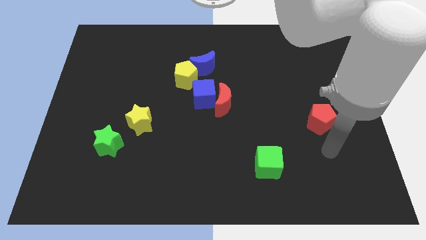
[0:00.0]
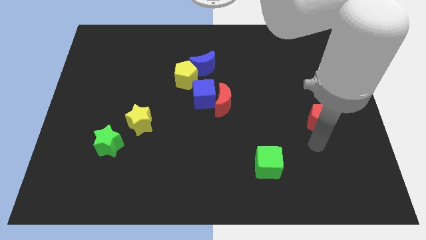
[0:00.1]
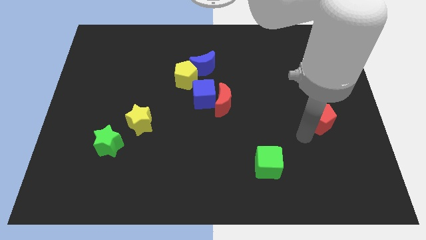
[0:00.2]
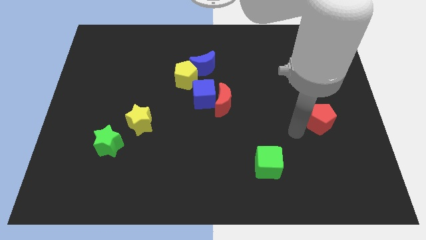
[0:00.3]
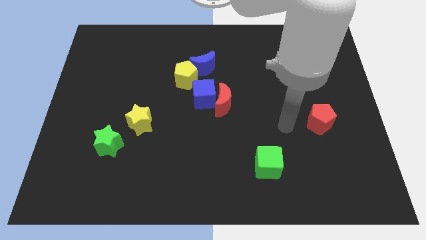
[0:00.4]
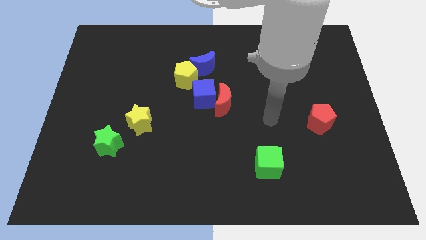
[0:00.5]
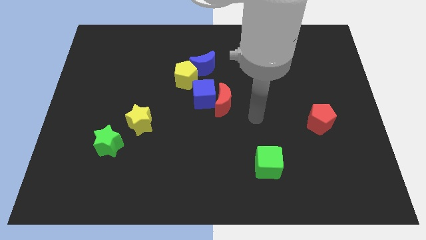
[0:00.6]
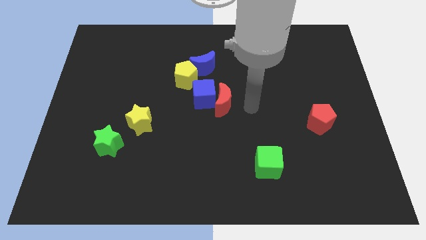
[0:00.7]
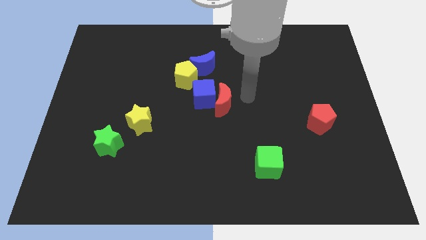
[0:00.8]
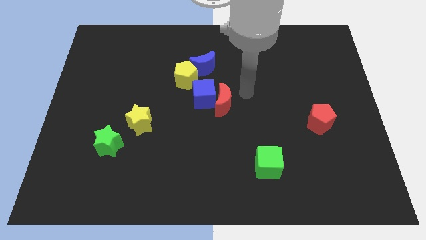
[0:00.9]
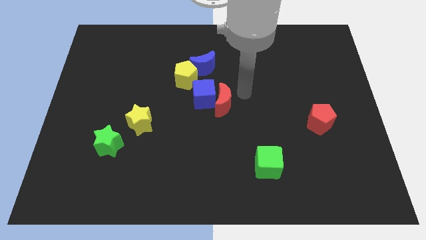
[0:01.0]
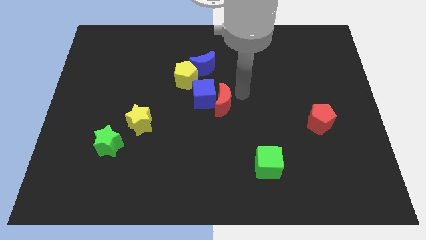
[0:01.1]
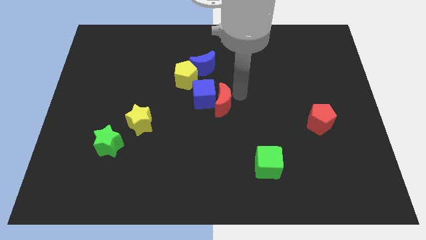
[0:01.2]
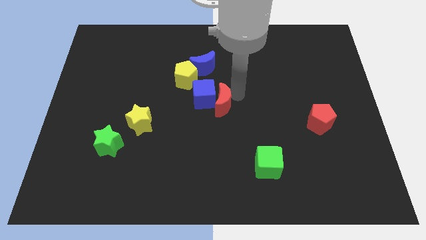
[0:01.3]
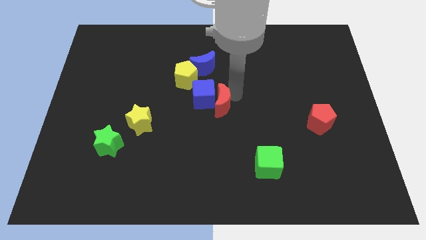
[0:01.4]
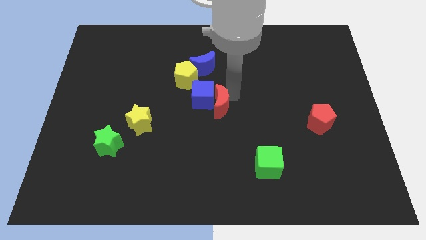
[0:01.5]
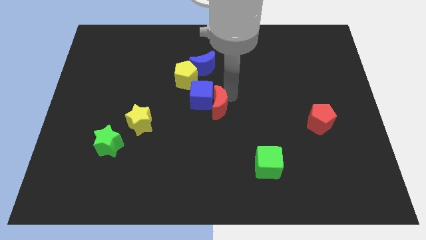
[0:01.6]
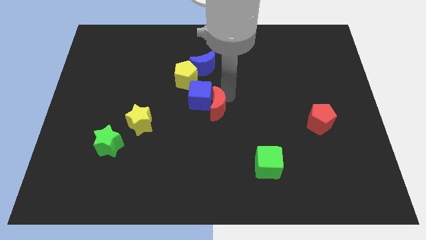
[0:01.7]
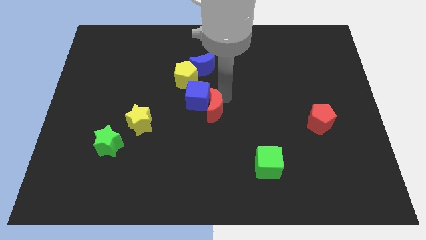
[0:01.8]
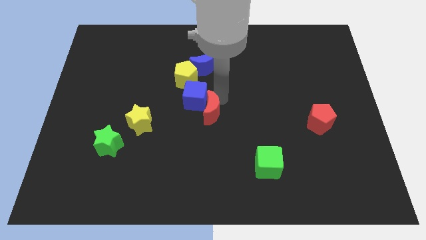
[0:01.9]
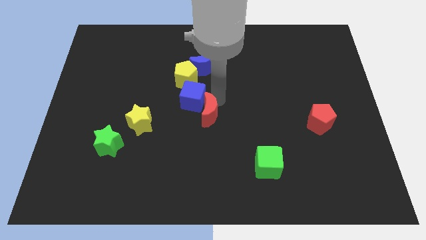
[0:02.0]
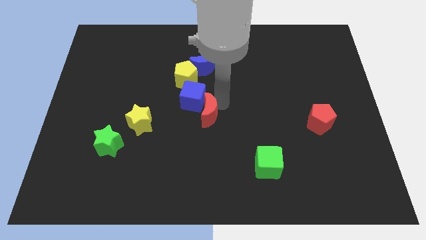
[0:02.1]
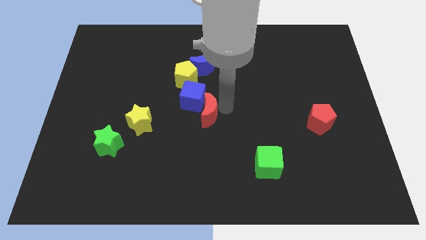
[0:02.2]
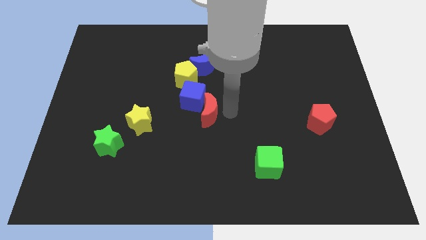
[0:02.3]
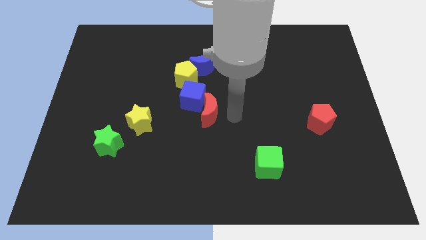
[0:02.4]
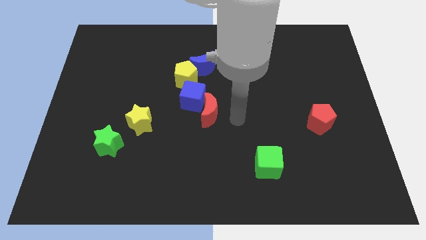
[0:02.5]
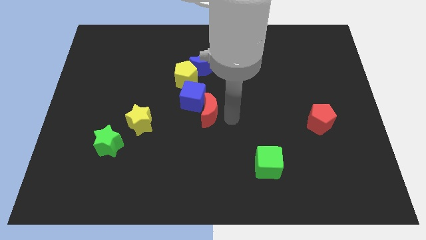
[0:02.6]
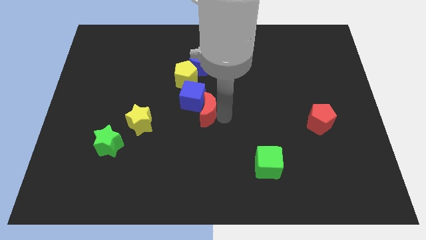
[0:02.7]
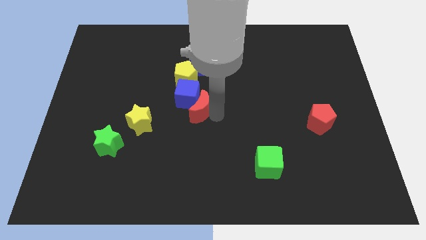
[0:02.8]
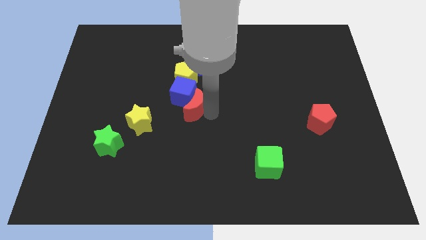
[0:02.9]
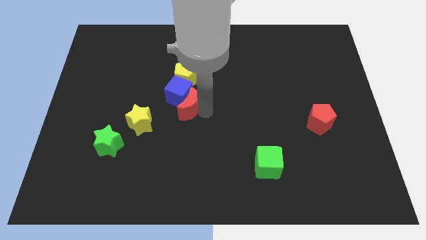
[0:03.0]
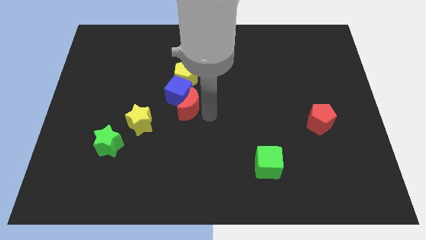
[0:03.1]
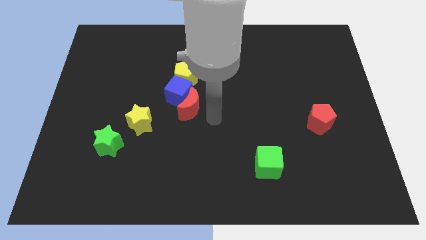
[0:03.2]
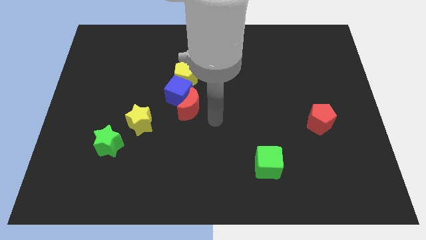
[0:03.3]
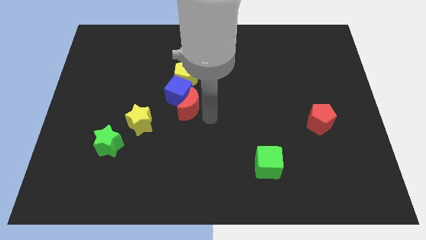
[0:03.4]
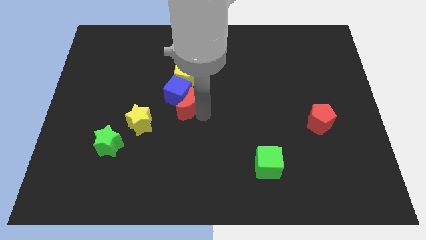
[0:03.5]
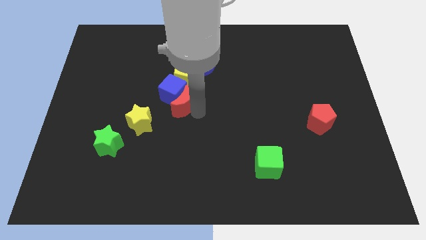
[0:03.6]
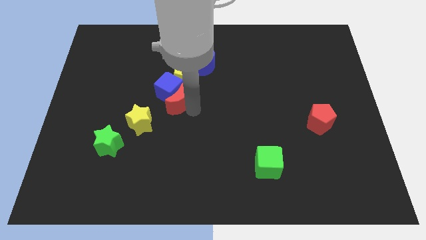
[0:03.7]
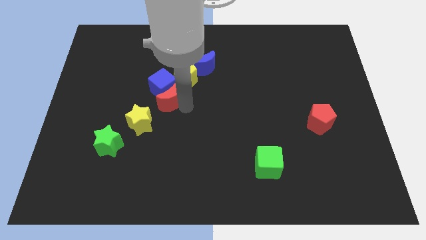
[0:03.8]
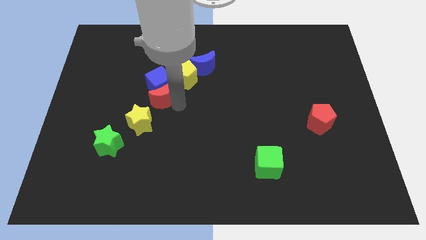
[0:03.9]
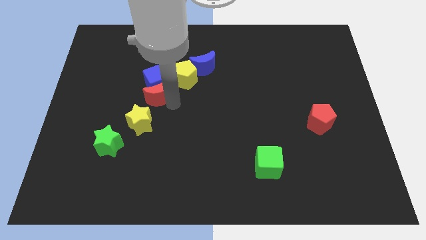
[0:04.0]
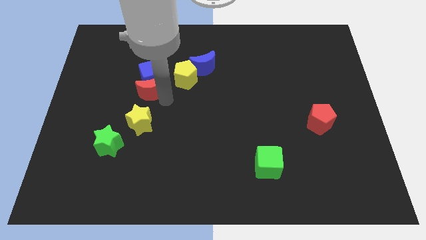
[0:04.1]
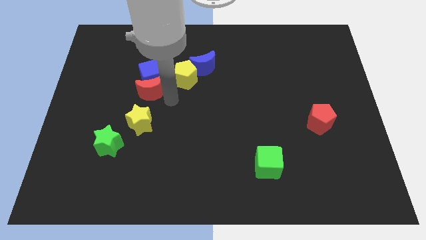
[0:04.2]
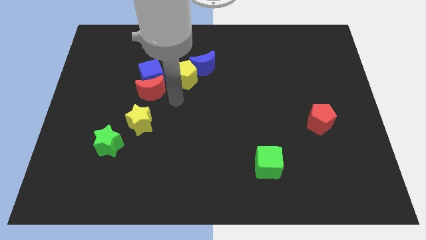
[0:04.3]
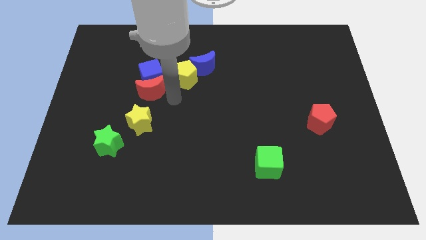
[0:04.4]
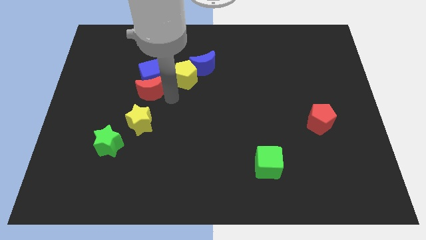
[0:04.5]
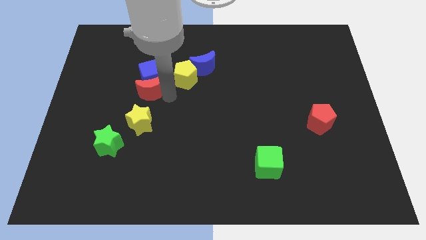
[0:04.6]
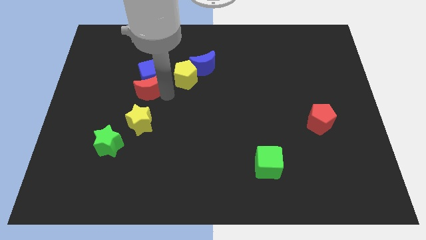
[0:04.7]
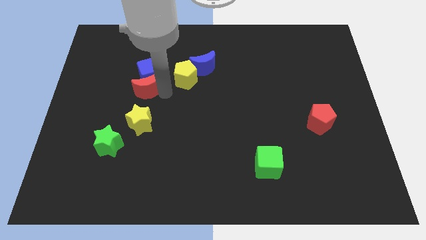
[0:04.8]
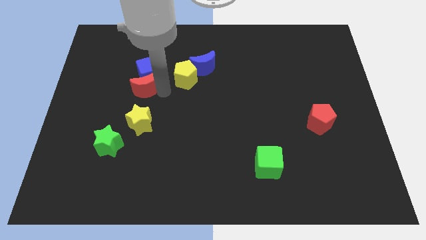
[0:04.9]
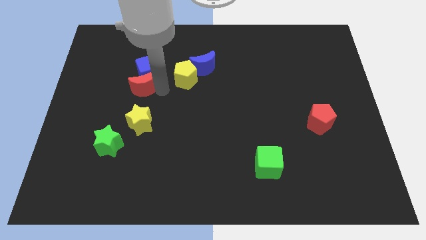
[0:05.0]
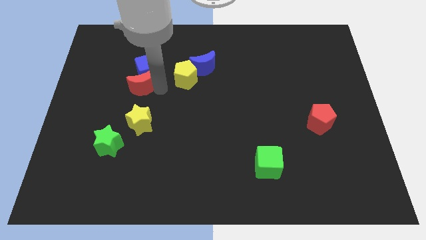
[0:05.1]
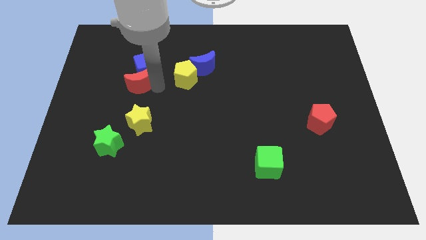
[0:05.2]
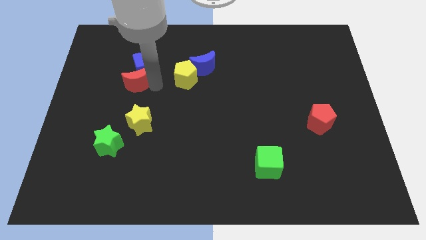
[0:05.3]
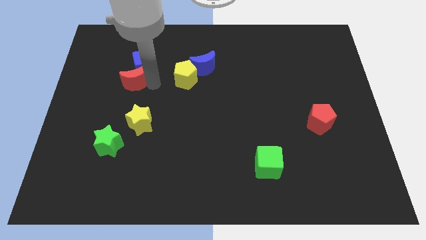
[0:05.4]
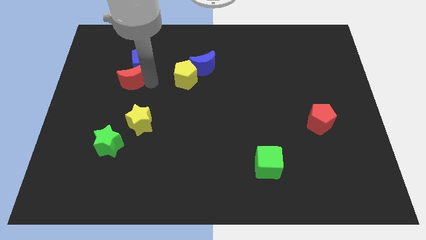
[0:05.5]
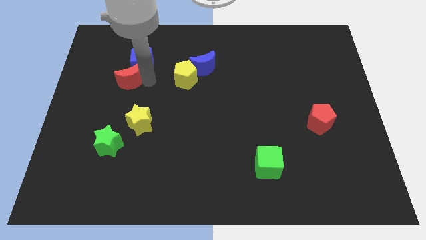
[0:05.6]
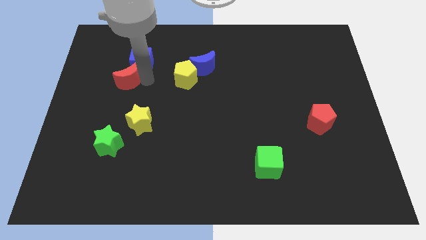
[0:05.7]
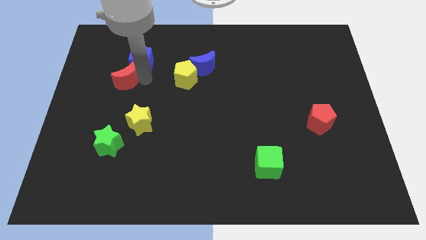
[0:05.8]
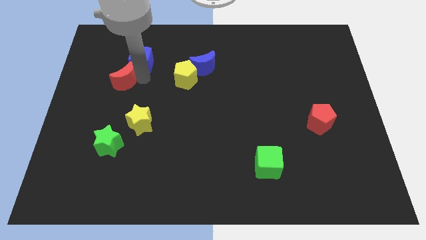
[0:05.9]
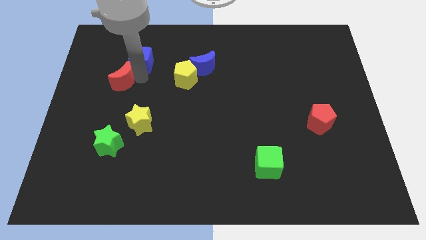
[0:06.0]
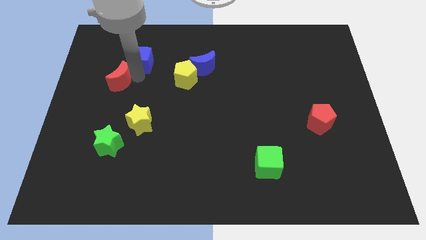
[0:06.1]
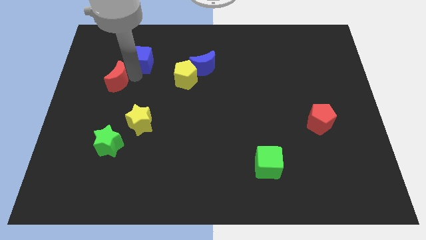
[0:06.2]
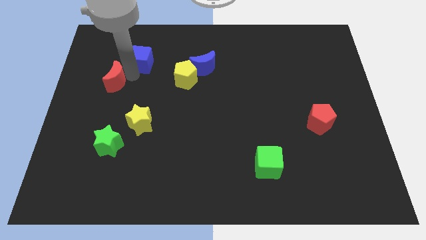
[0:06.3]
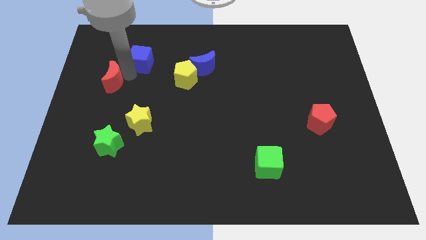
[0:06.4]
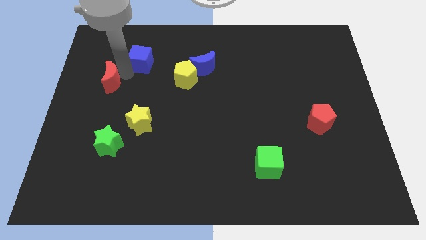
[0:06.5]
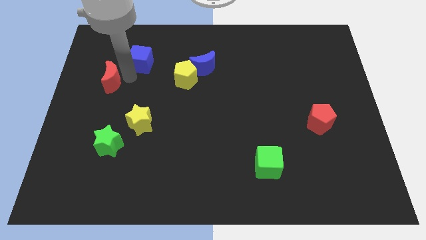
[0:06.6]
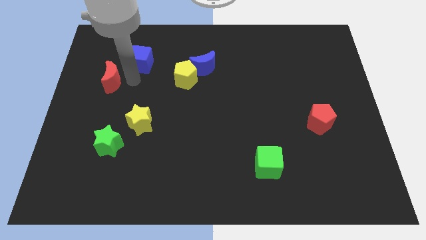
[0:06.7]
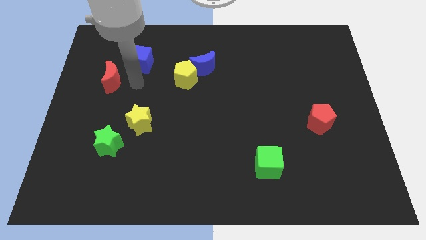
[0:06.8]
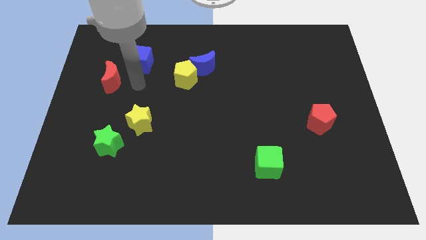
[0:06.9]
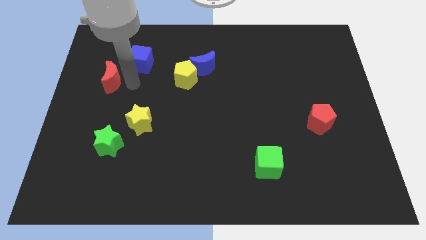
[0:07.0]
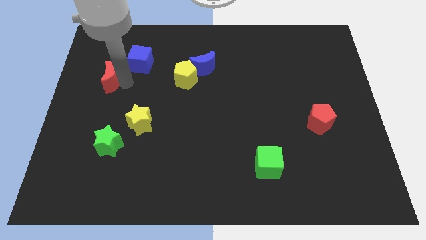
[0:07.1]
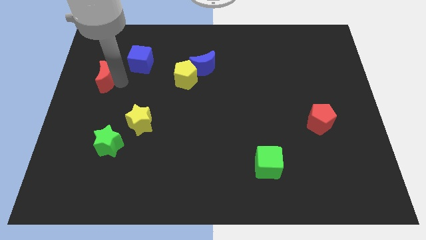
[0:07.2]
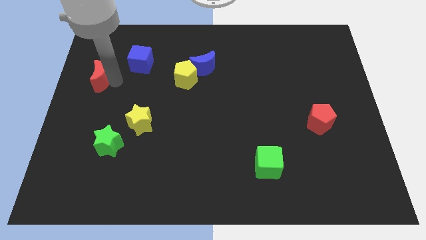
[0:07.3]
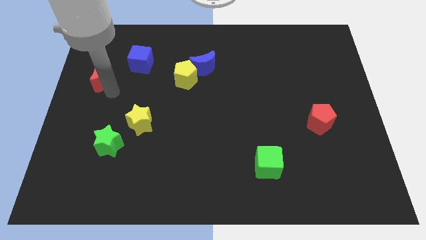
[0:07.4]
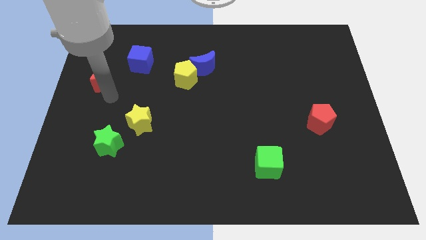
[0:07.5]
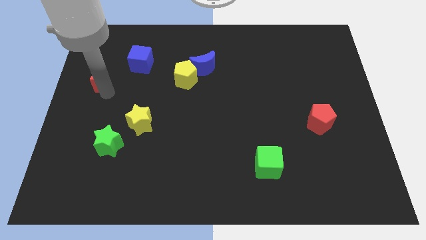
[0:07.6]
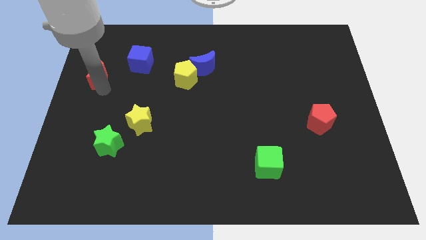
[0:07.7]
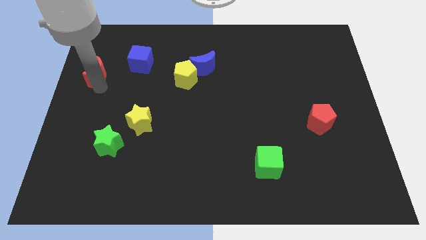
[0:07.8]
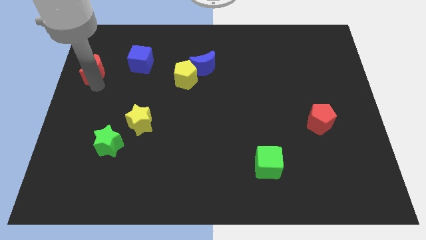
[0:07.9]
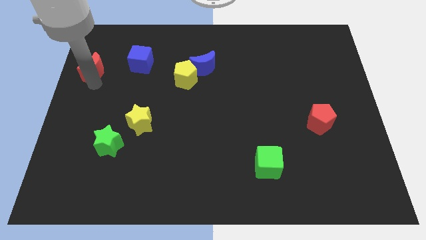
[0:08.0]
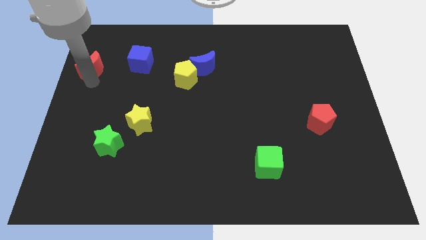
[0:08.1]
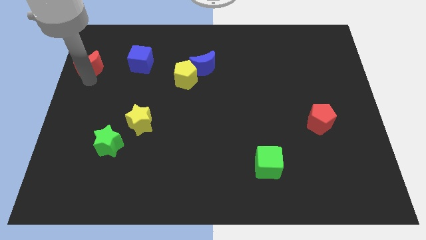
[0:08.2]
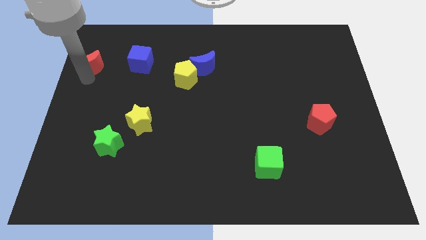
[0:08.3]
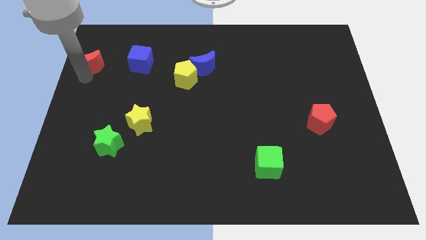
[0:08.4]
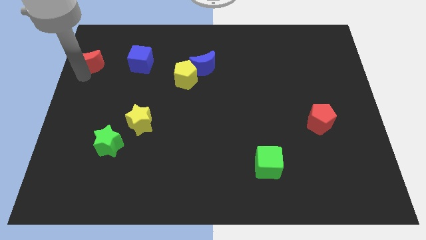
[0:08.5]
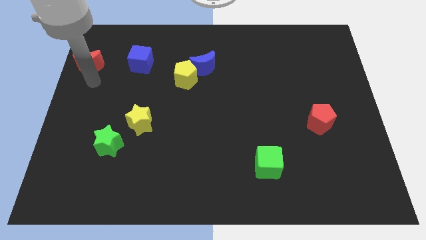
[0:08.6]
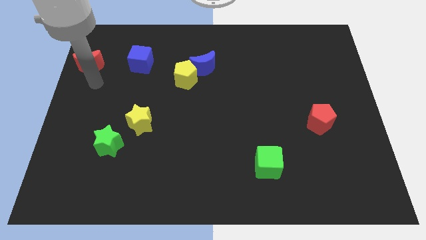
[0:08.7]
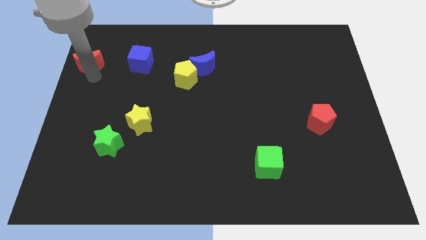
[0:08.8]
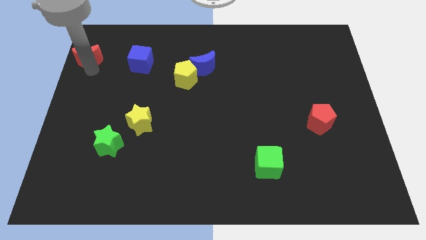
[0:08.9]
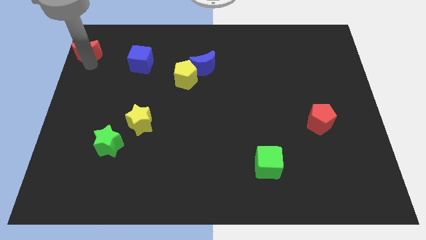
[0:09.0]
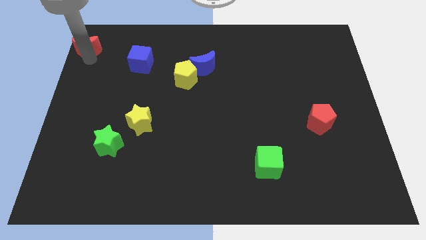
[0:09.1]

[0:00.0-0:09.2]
push the red moon to the upper left corner
